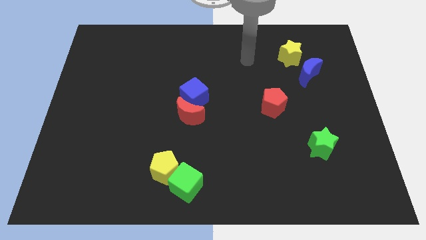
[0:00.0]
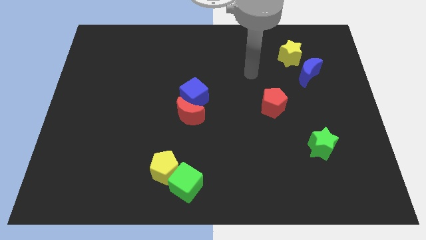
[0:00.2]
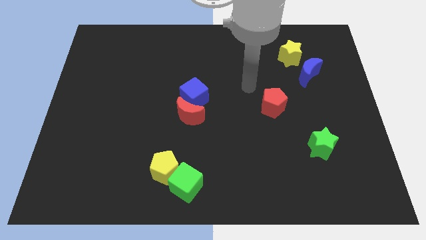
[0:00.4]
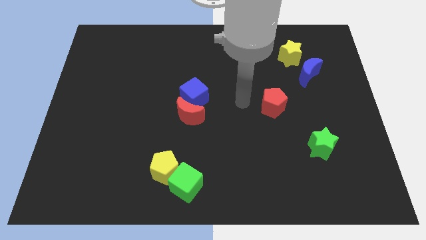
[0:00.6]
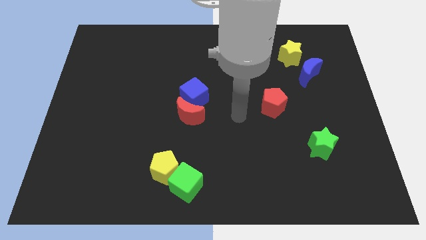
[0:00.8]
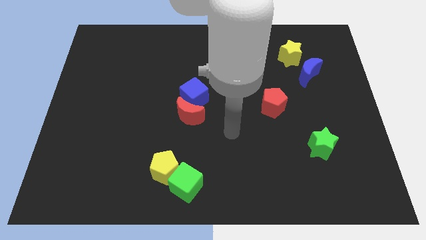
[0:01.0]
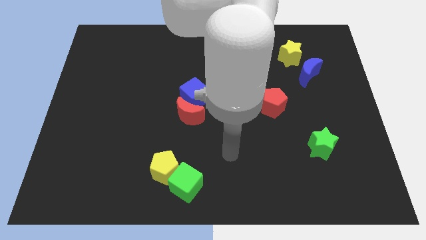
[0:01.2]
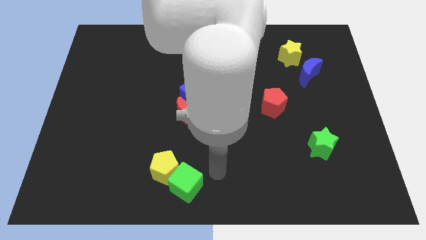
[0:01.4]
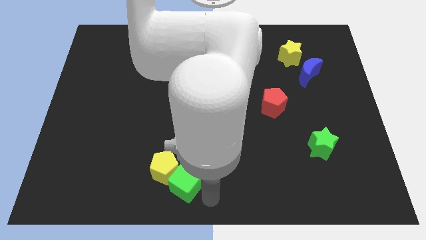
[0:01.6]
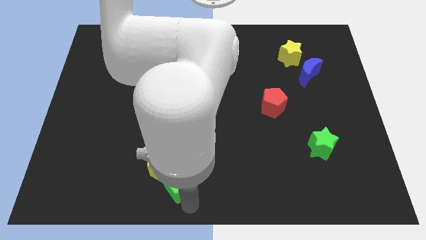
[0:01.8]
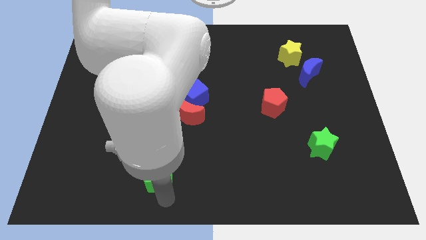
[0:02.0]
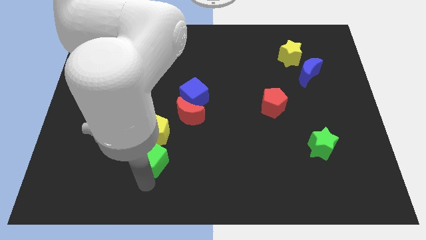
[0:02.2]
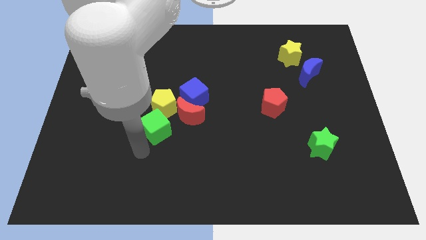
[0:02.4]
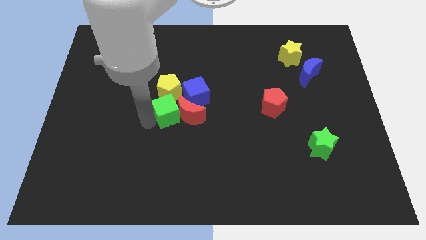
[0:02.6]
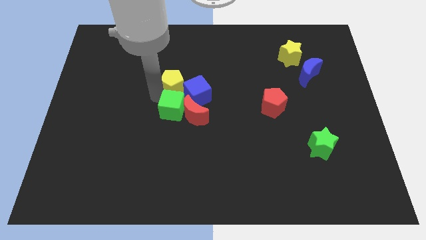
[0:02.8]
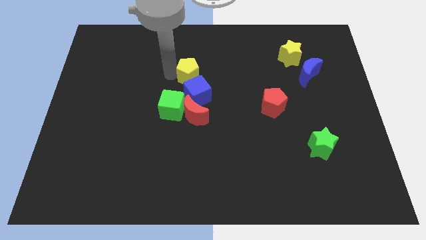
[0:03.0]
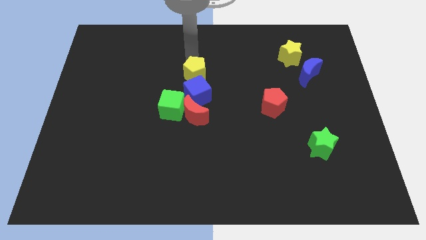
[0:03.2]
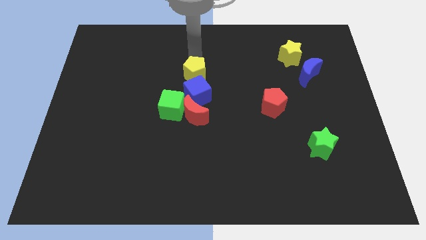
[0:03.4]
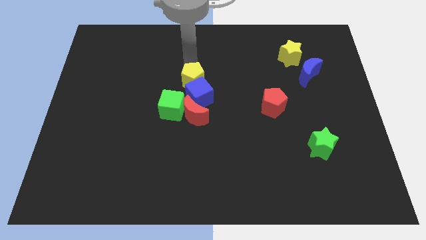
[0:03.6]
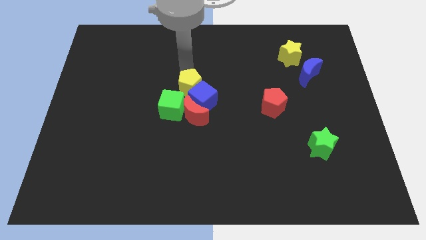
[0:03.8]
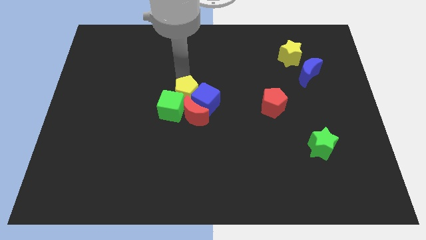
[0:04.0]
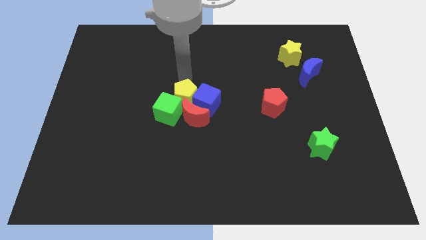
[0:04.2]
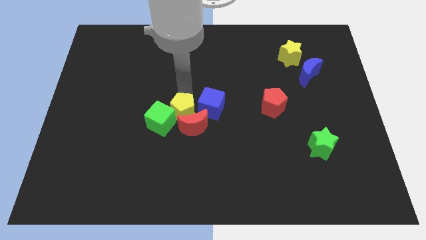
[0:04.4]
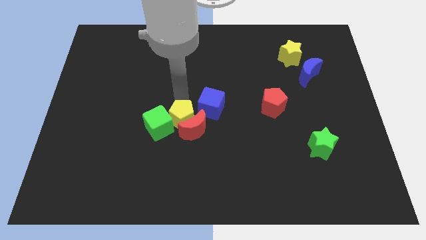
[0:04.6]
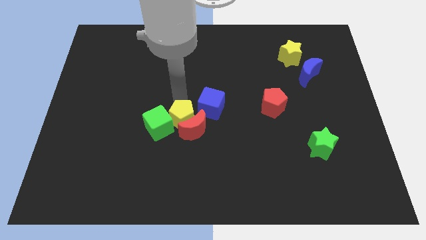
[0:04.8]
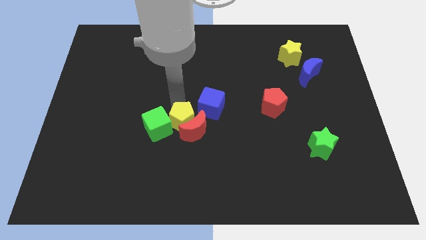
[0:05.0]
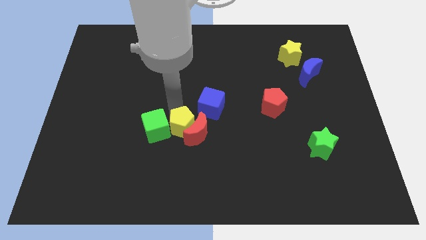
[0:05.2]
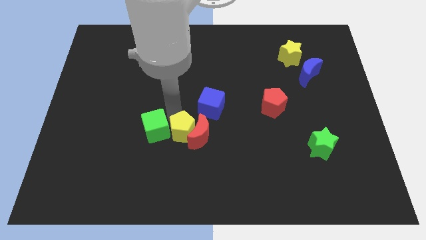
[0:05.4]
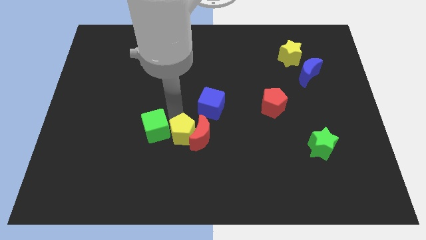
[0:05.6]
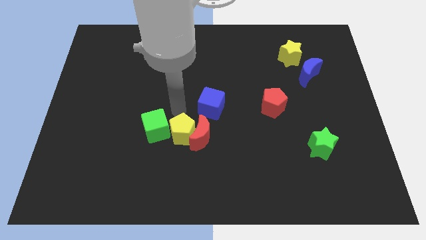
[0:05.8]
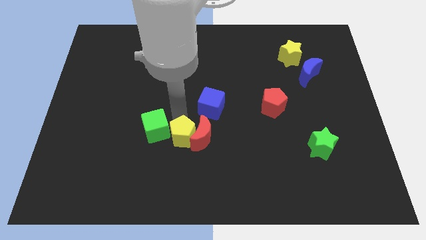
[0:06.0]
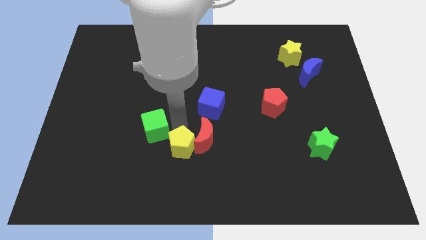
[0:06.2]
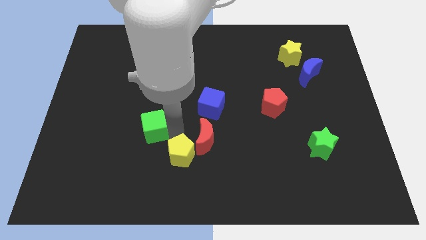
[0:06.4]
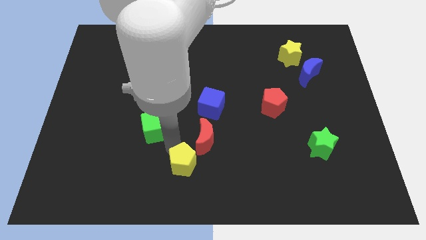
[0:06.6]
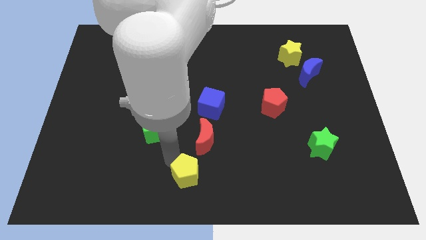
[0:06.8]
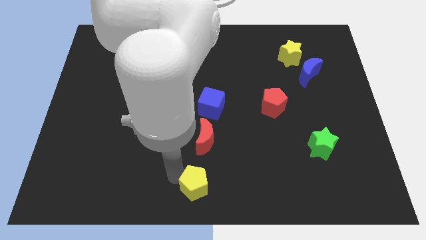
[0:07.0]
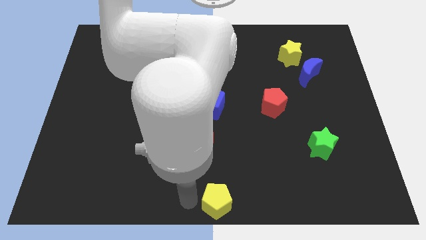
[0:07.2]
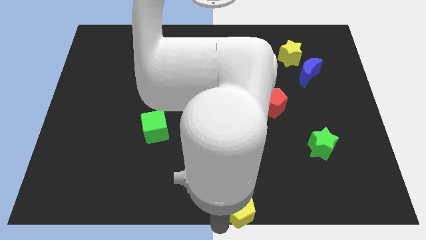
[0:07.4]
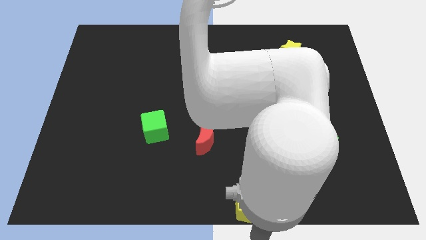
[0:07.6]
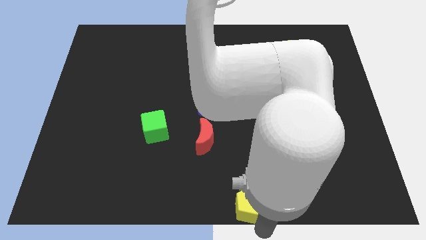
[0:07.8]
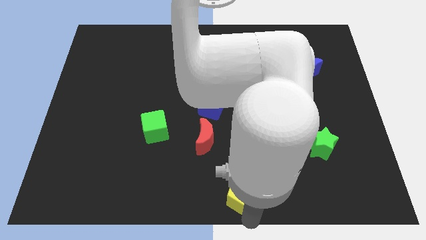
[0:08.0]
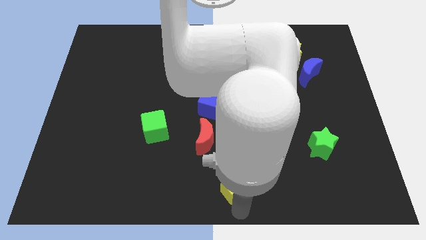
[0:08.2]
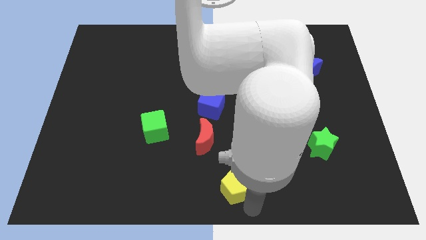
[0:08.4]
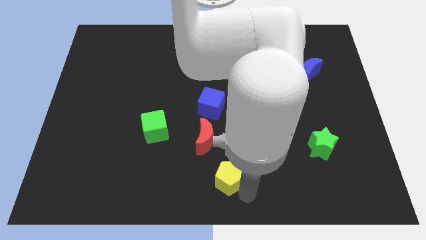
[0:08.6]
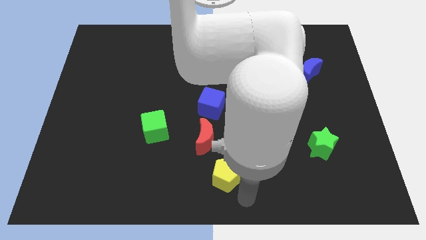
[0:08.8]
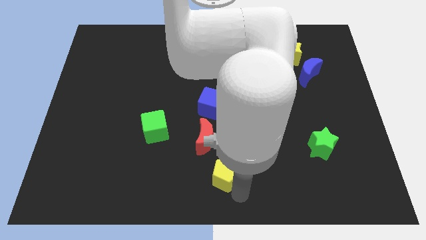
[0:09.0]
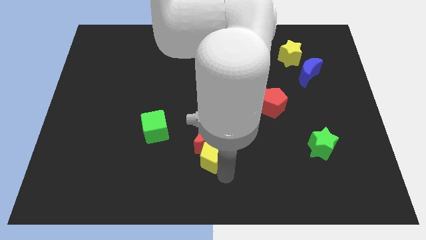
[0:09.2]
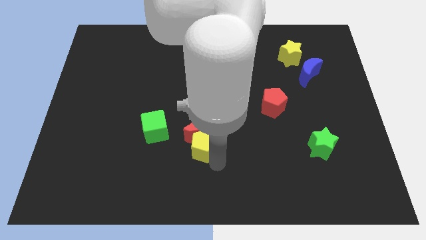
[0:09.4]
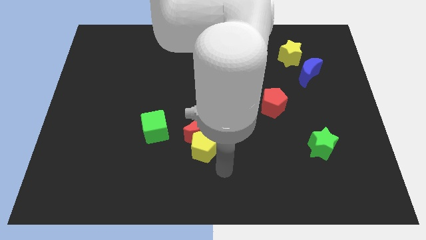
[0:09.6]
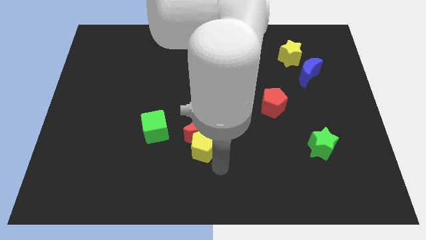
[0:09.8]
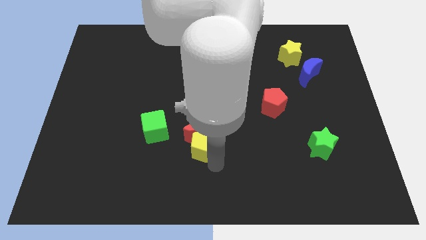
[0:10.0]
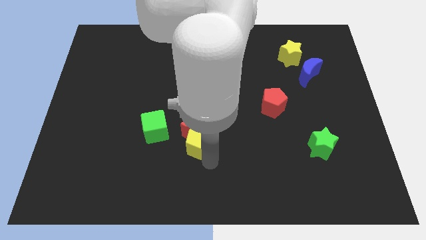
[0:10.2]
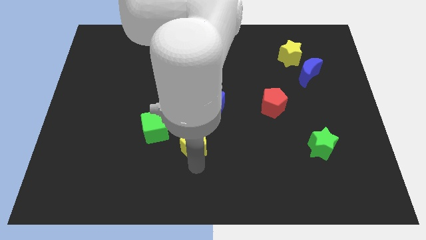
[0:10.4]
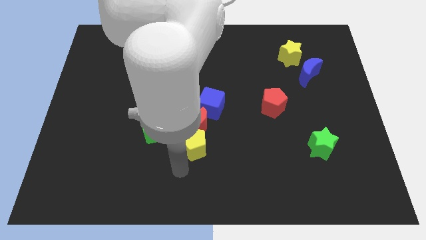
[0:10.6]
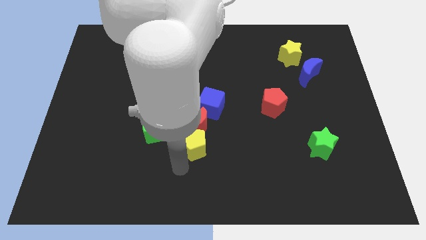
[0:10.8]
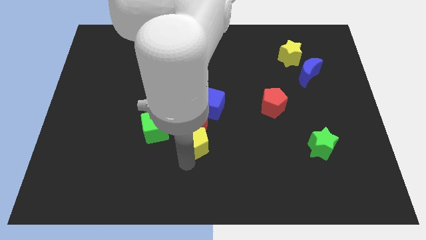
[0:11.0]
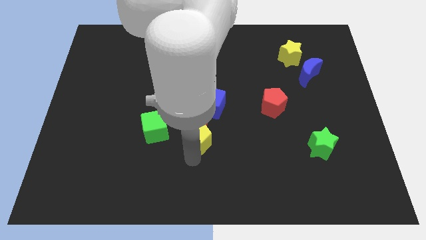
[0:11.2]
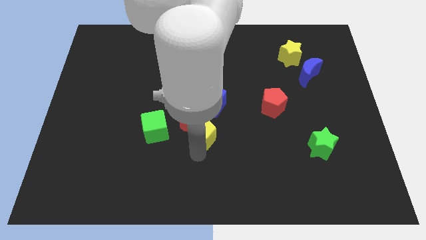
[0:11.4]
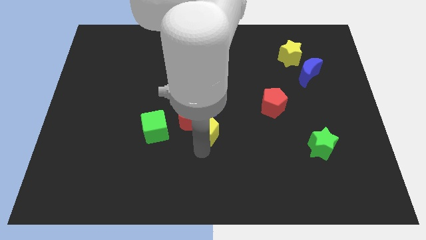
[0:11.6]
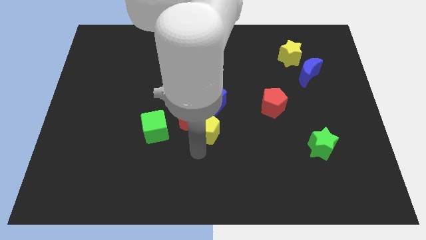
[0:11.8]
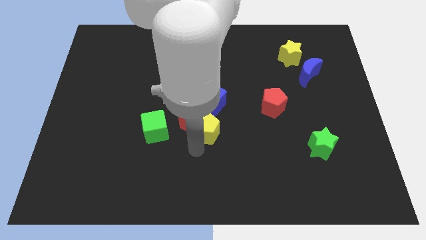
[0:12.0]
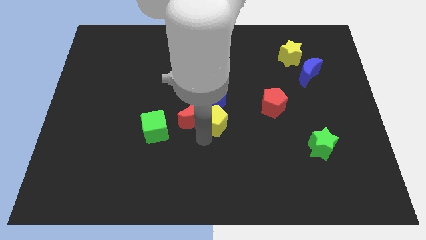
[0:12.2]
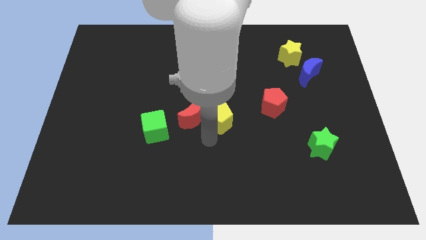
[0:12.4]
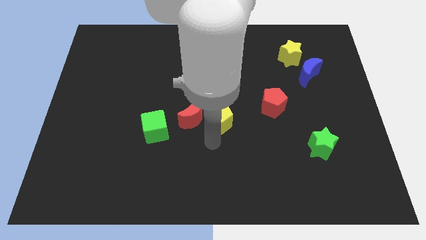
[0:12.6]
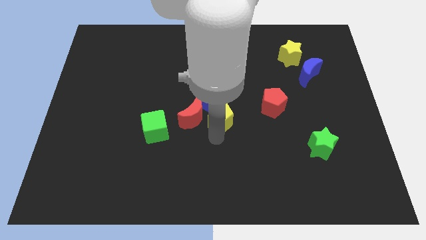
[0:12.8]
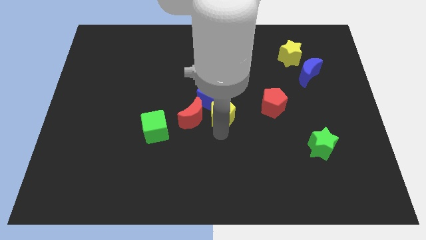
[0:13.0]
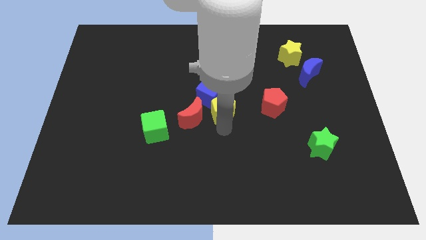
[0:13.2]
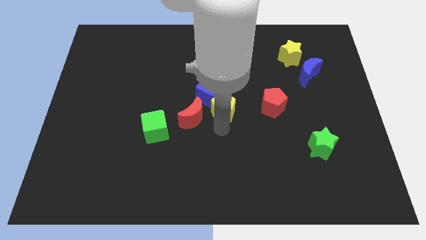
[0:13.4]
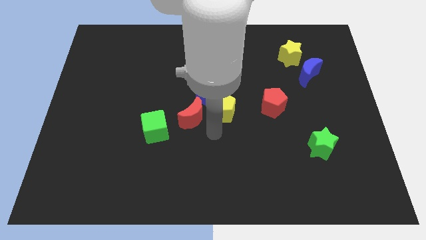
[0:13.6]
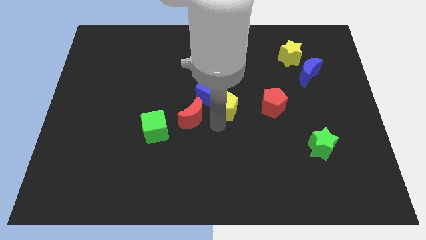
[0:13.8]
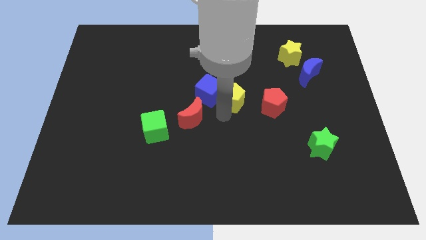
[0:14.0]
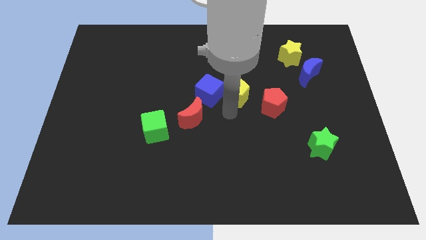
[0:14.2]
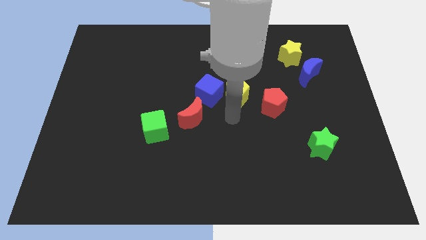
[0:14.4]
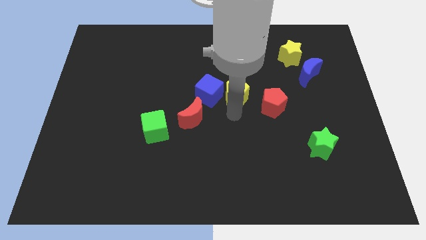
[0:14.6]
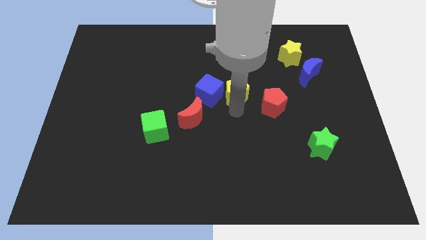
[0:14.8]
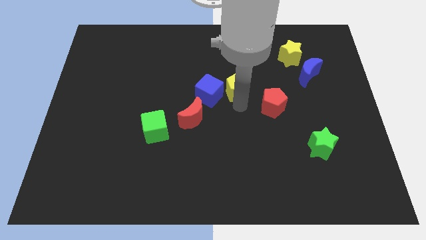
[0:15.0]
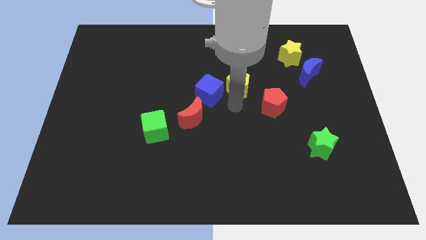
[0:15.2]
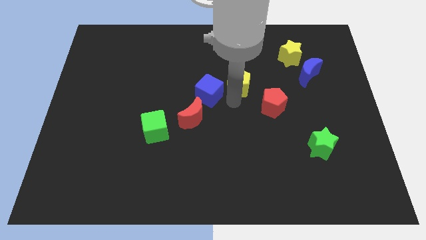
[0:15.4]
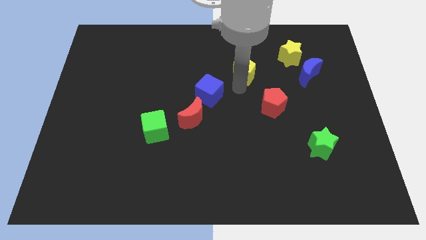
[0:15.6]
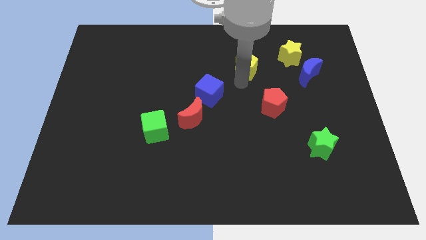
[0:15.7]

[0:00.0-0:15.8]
slide the yellow pentagon left of the yellow star
